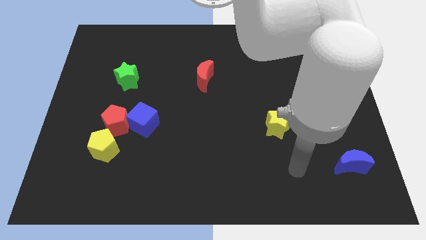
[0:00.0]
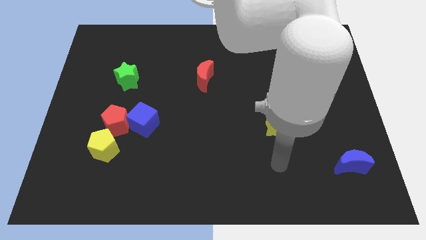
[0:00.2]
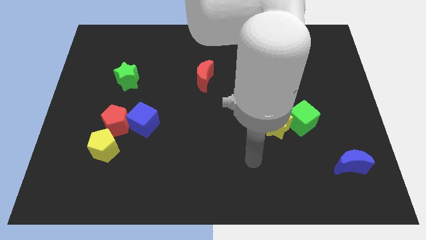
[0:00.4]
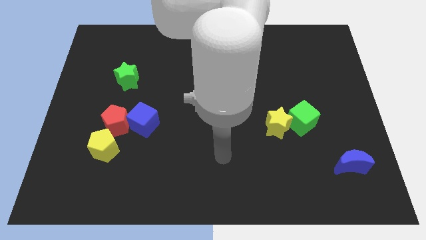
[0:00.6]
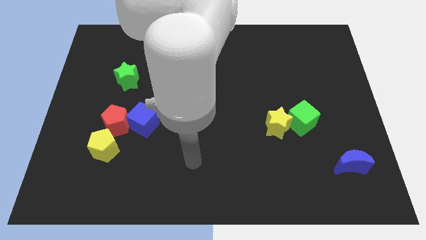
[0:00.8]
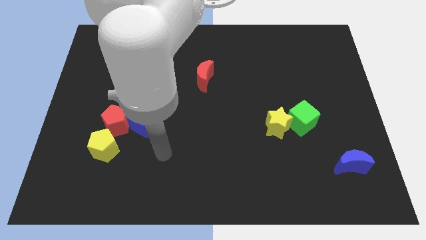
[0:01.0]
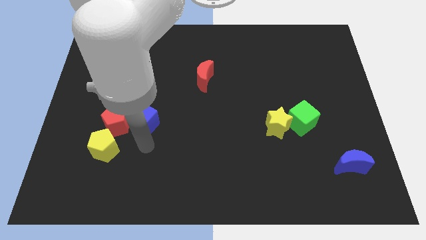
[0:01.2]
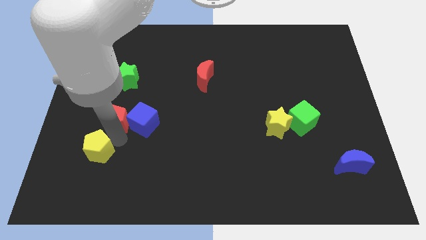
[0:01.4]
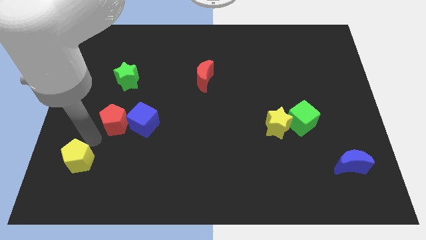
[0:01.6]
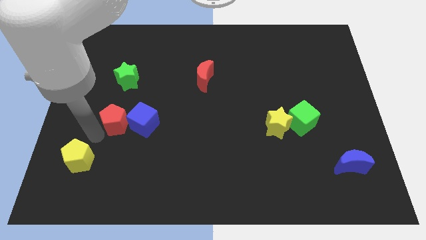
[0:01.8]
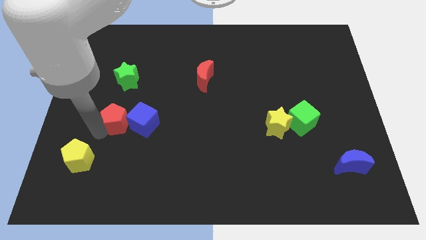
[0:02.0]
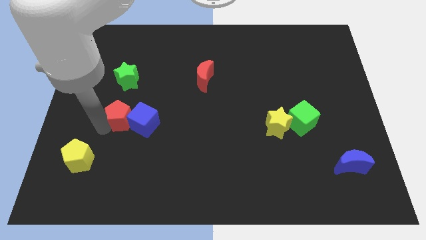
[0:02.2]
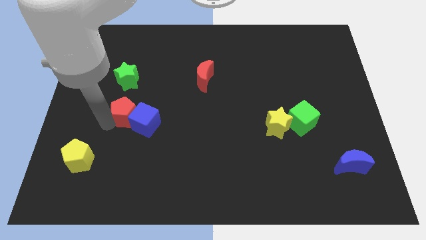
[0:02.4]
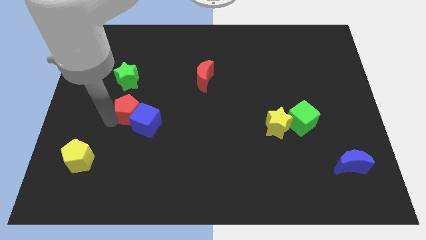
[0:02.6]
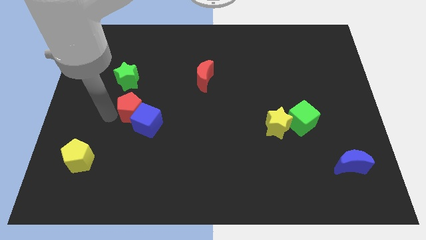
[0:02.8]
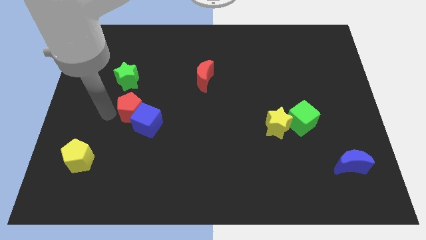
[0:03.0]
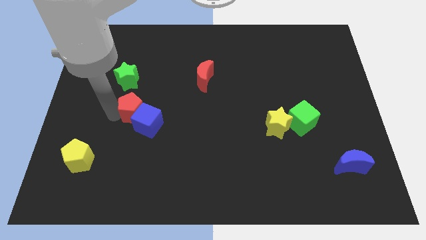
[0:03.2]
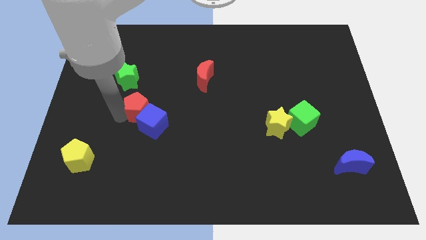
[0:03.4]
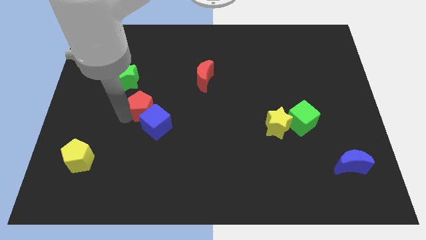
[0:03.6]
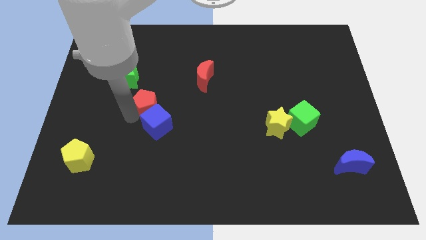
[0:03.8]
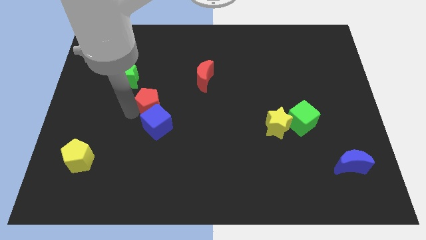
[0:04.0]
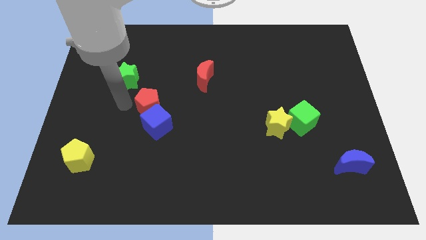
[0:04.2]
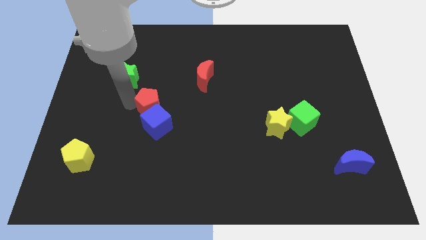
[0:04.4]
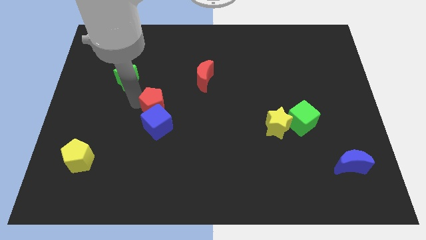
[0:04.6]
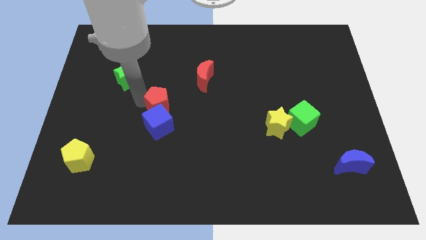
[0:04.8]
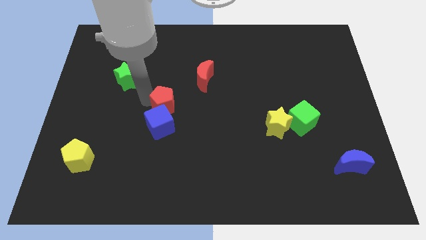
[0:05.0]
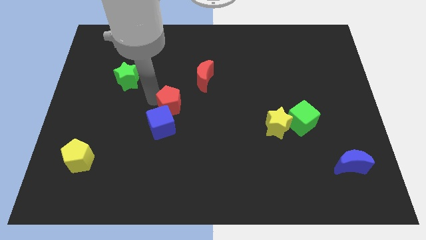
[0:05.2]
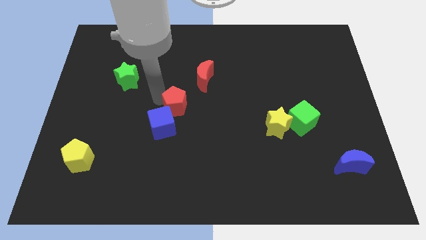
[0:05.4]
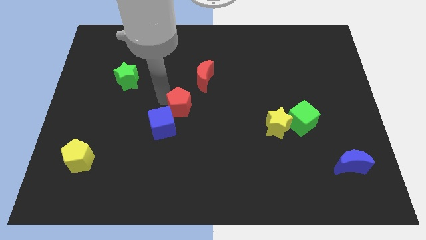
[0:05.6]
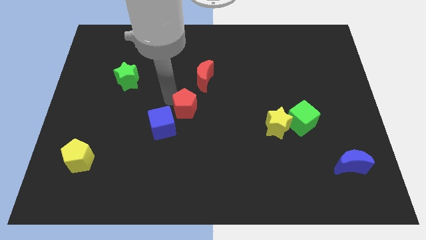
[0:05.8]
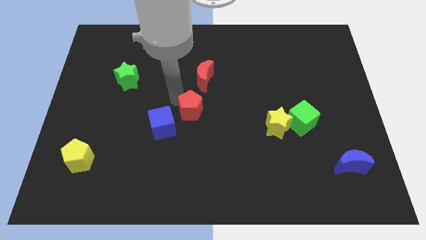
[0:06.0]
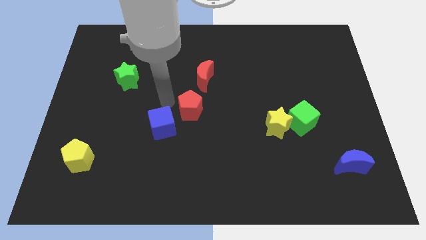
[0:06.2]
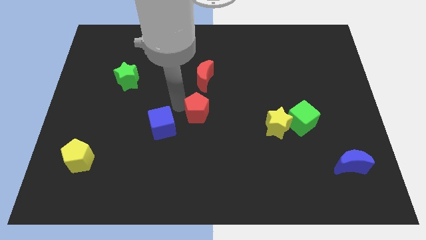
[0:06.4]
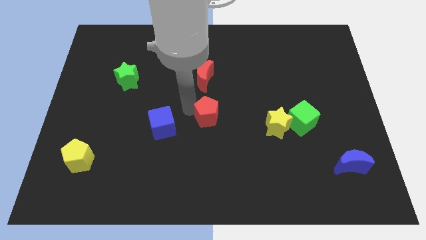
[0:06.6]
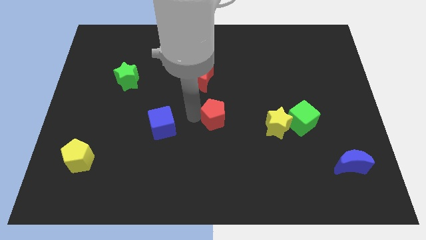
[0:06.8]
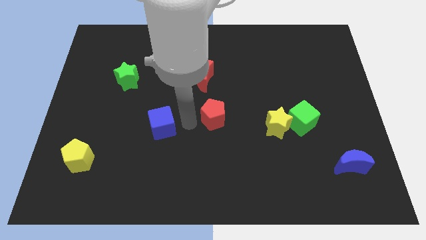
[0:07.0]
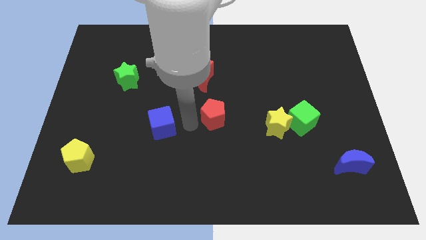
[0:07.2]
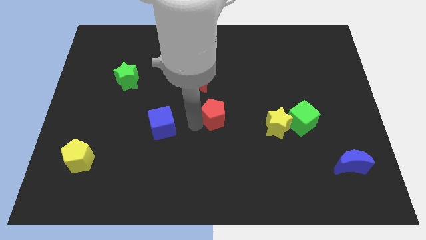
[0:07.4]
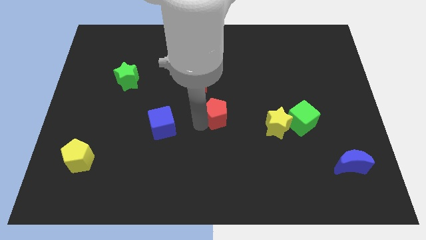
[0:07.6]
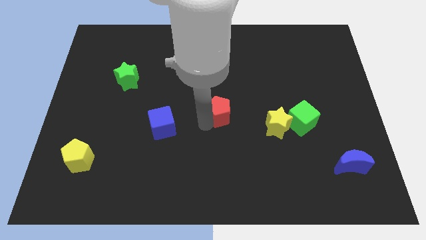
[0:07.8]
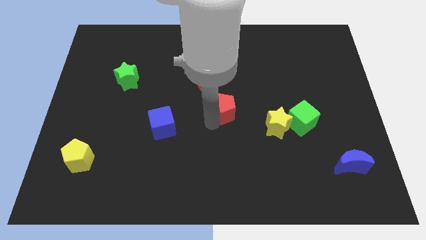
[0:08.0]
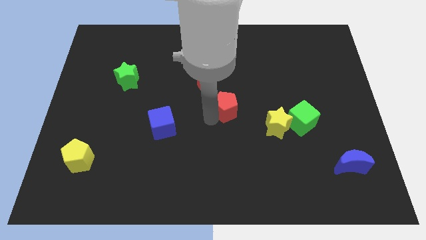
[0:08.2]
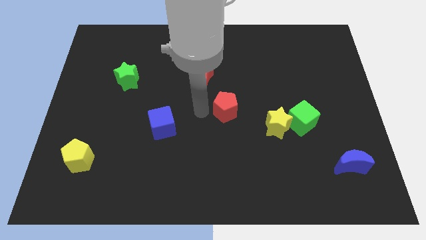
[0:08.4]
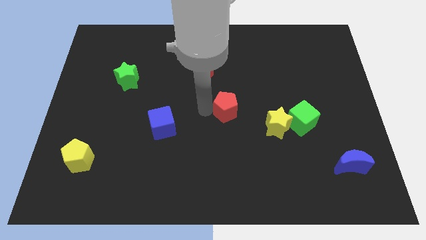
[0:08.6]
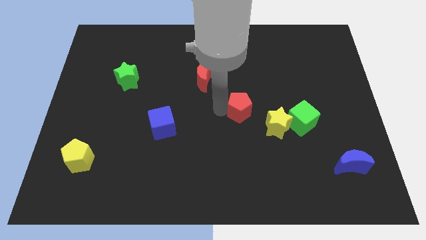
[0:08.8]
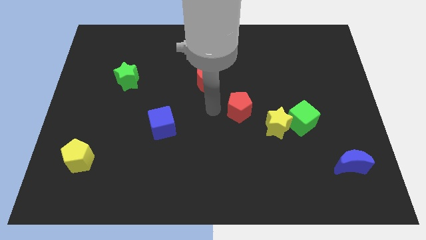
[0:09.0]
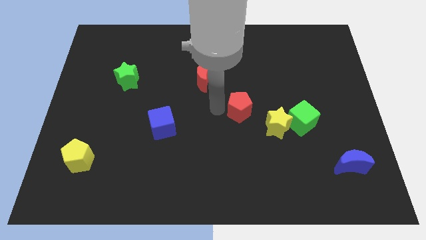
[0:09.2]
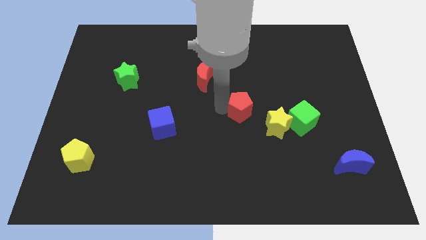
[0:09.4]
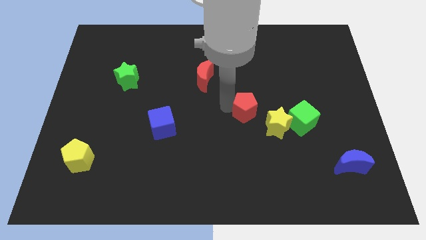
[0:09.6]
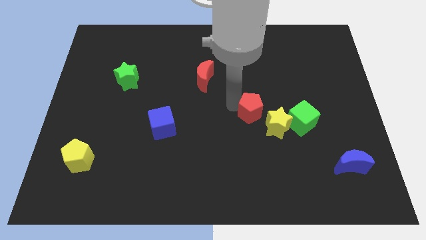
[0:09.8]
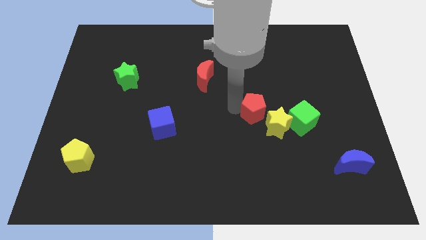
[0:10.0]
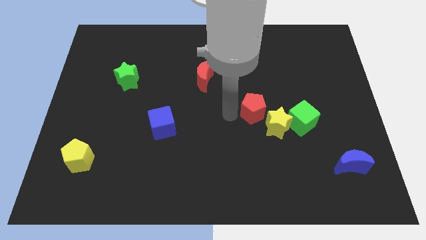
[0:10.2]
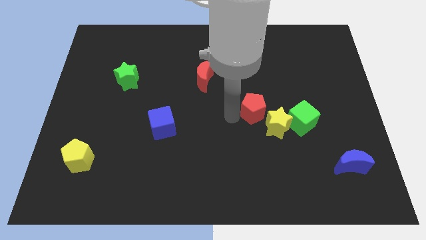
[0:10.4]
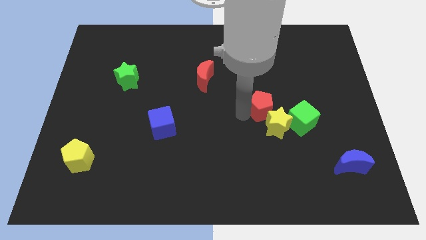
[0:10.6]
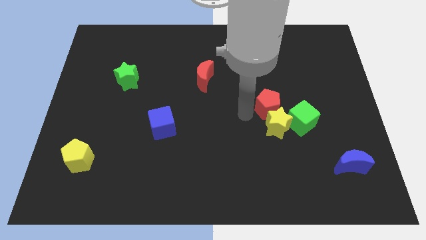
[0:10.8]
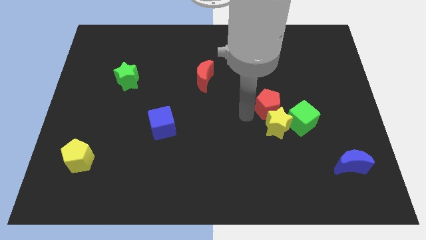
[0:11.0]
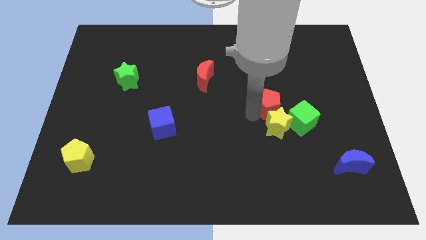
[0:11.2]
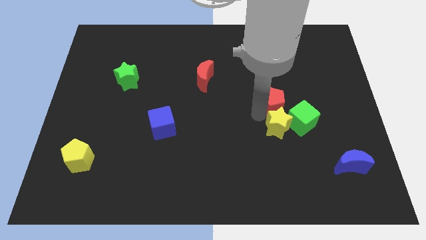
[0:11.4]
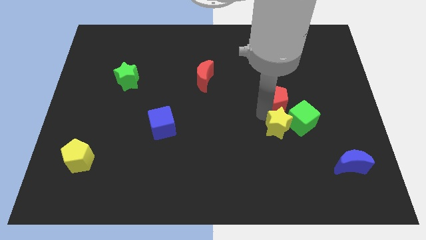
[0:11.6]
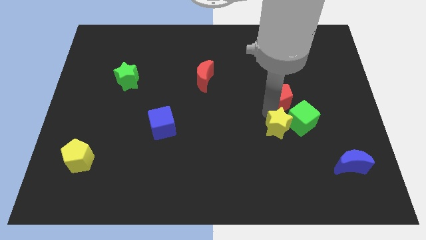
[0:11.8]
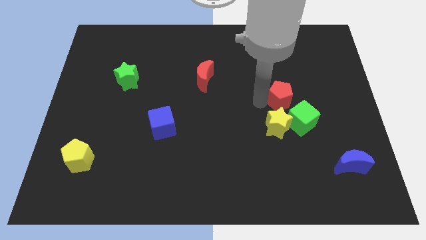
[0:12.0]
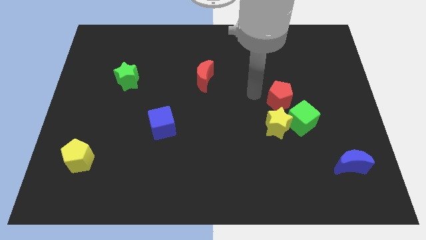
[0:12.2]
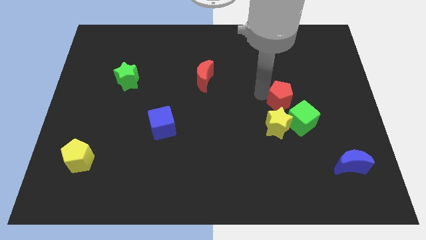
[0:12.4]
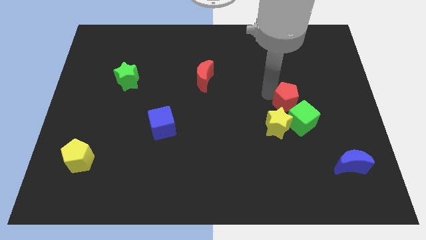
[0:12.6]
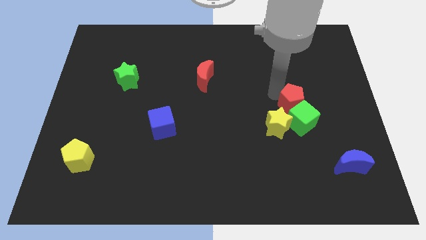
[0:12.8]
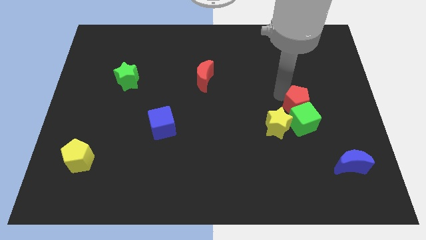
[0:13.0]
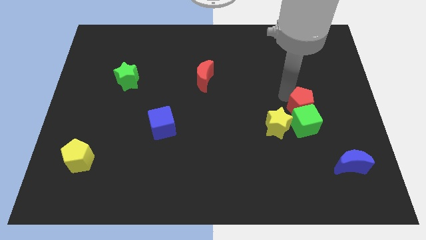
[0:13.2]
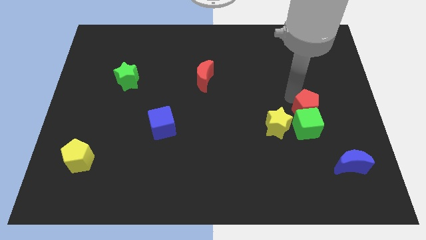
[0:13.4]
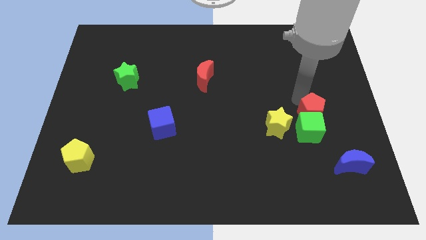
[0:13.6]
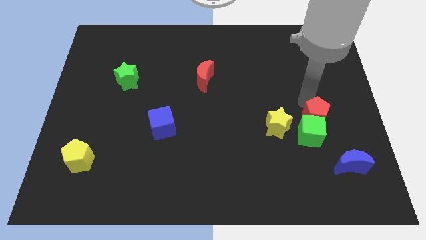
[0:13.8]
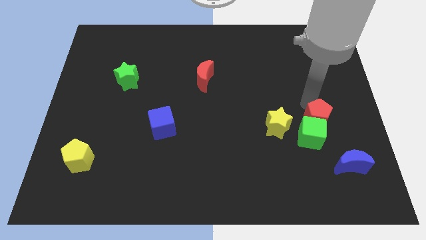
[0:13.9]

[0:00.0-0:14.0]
move the red pentagon to the top of the blue moon

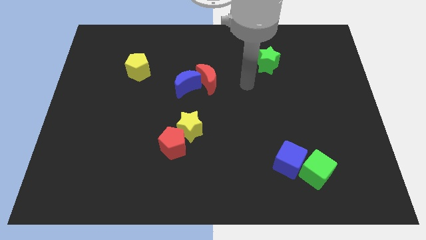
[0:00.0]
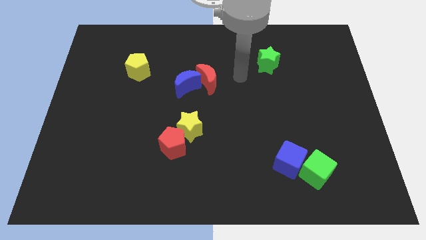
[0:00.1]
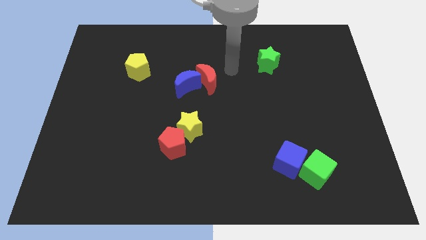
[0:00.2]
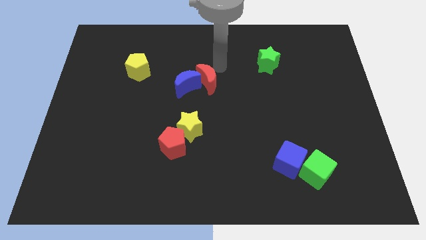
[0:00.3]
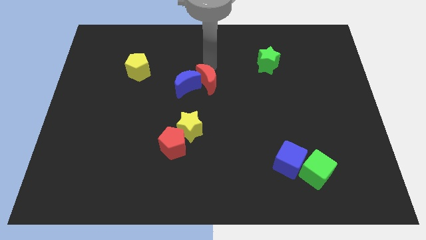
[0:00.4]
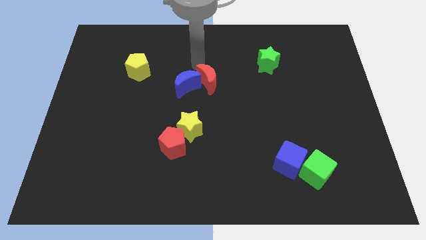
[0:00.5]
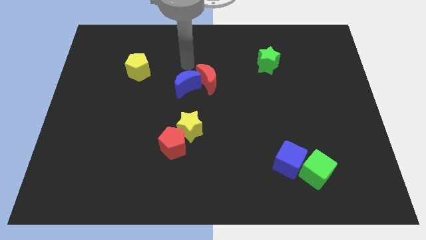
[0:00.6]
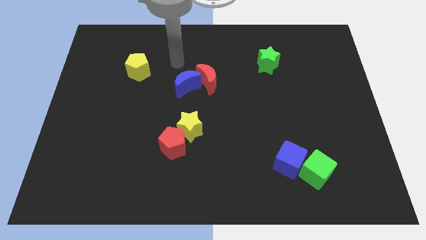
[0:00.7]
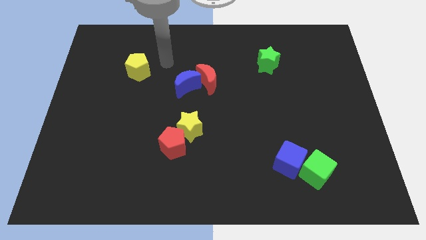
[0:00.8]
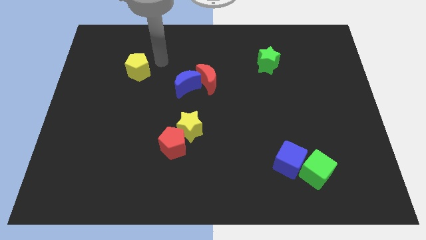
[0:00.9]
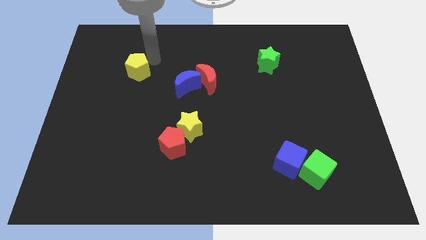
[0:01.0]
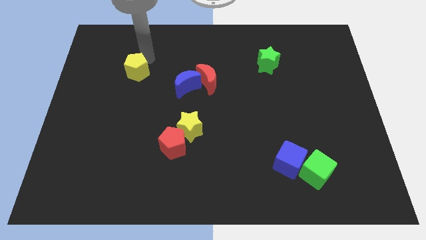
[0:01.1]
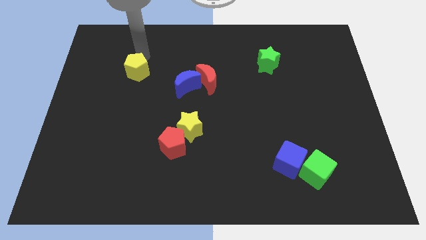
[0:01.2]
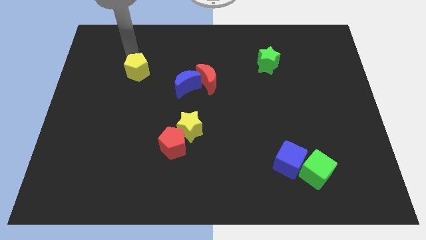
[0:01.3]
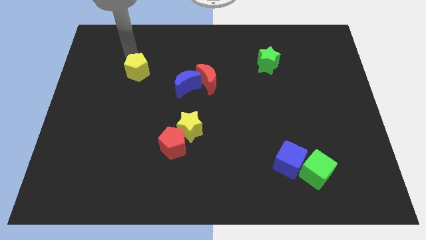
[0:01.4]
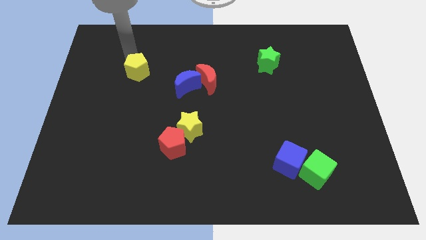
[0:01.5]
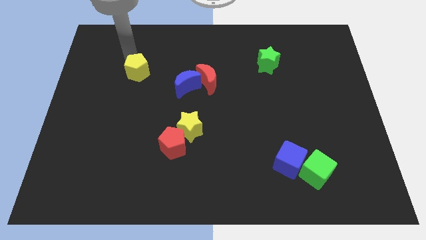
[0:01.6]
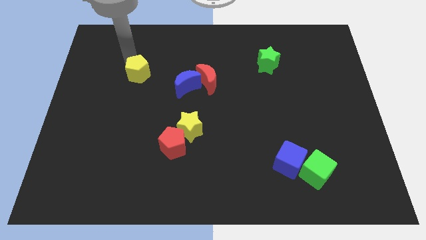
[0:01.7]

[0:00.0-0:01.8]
put the yellow pentagon left of the blue moon
